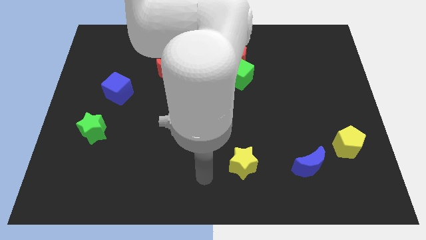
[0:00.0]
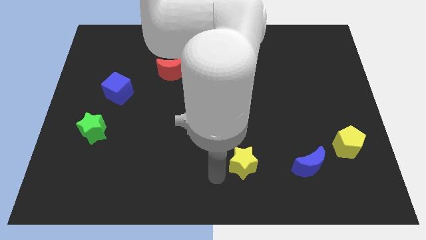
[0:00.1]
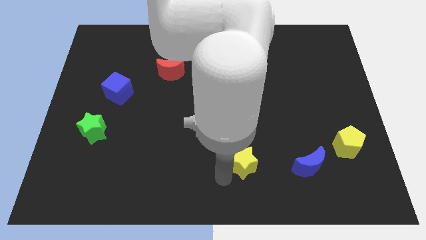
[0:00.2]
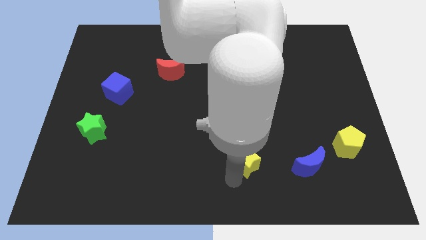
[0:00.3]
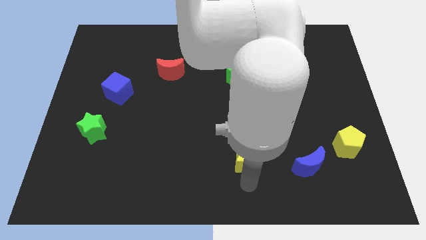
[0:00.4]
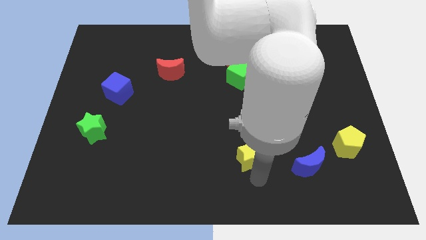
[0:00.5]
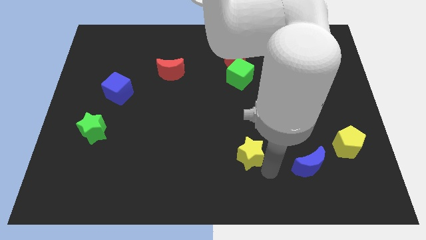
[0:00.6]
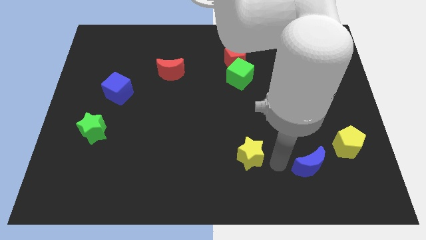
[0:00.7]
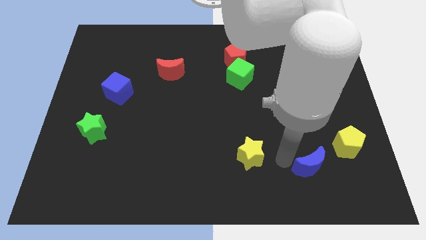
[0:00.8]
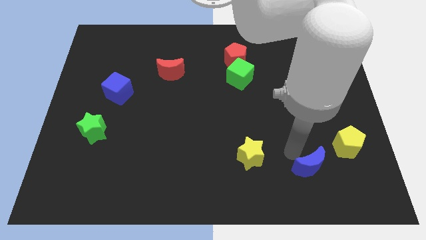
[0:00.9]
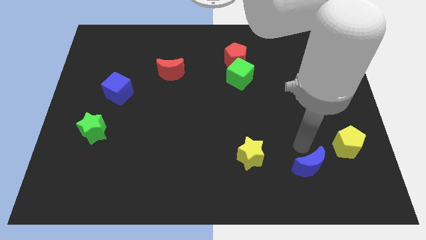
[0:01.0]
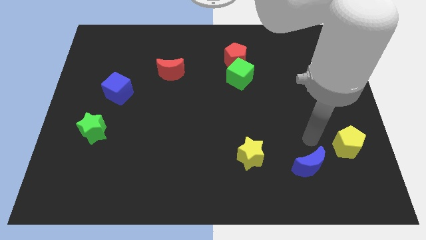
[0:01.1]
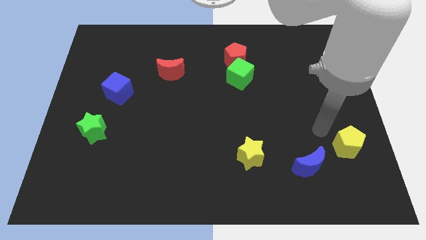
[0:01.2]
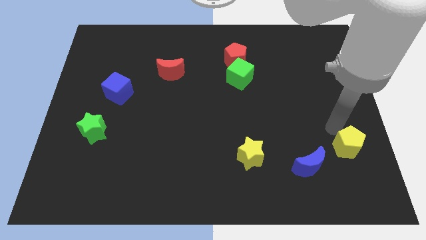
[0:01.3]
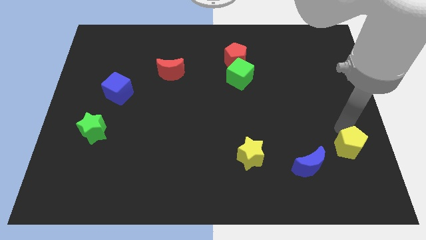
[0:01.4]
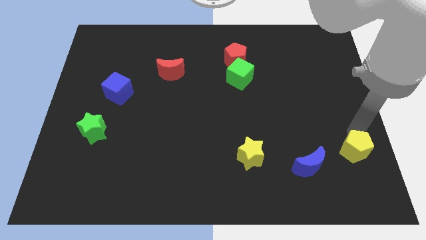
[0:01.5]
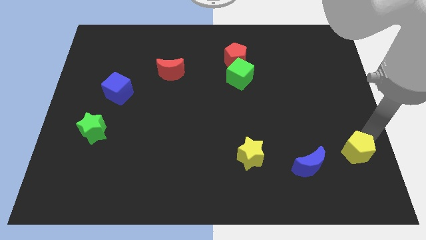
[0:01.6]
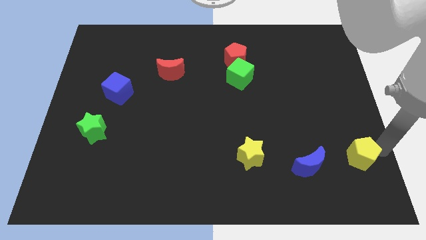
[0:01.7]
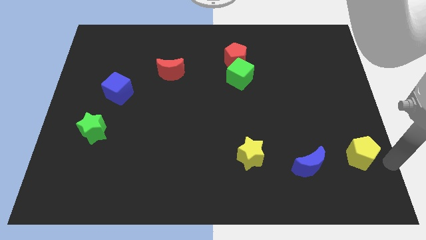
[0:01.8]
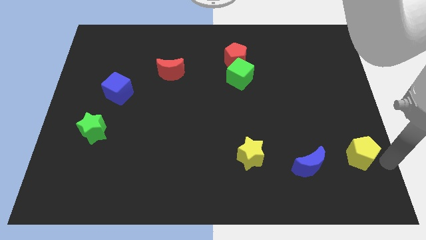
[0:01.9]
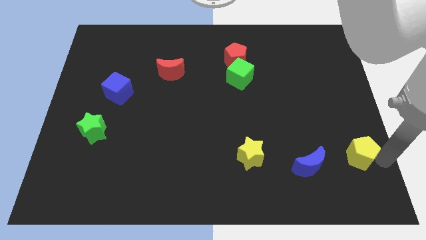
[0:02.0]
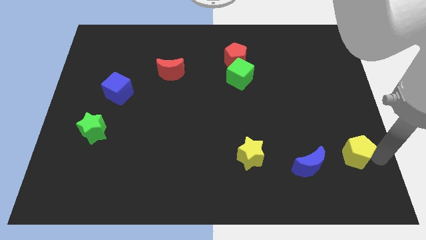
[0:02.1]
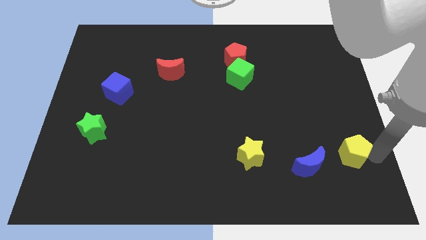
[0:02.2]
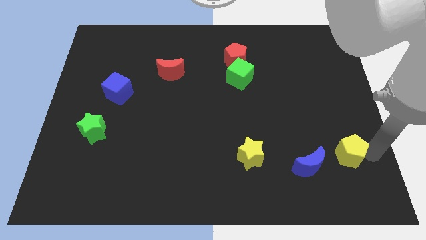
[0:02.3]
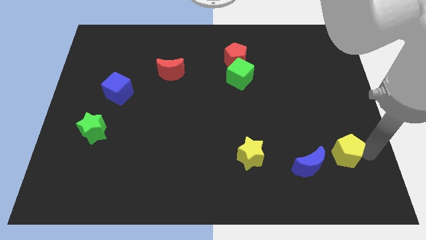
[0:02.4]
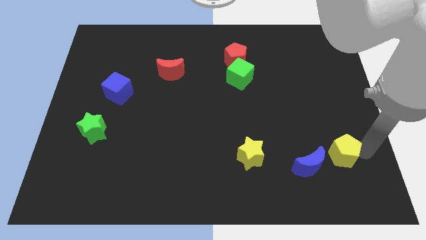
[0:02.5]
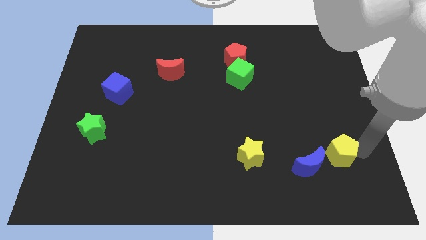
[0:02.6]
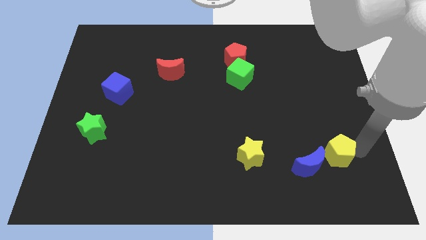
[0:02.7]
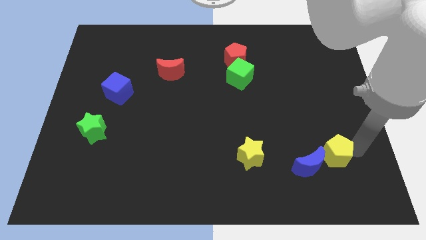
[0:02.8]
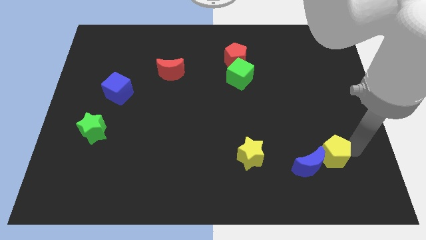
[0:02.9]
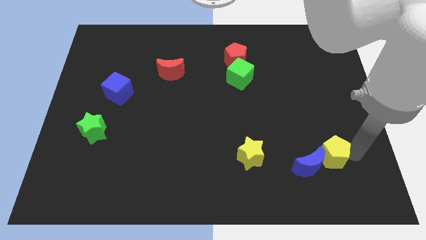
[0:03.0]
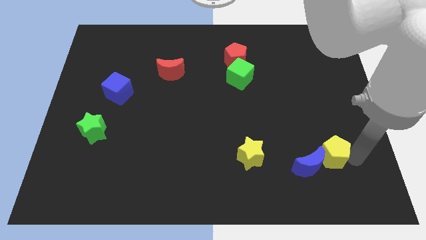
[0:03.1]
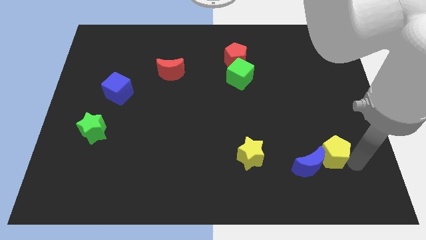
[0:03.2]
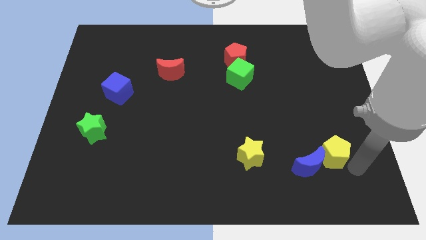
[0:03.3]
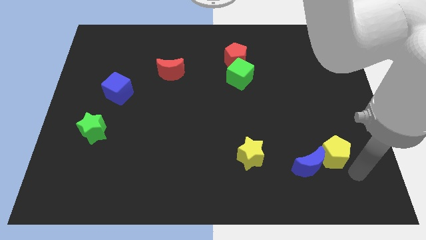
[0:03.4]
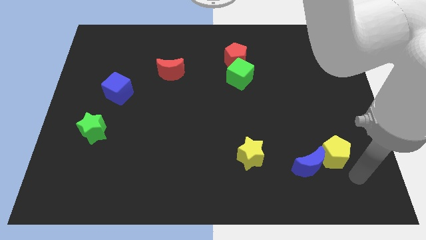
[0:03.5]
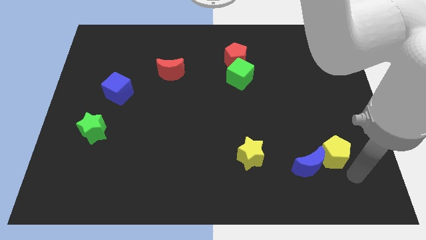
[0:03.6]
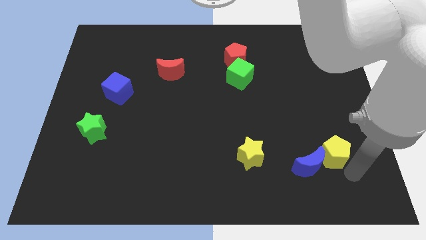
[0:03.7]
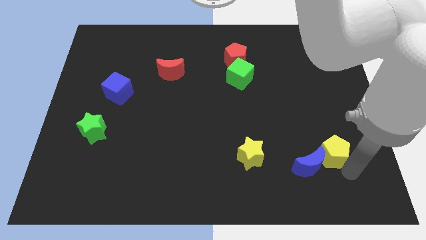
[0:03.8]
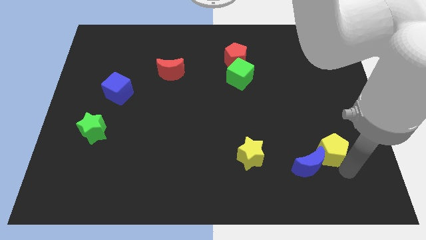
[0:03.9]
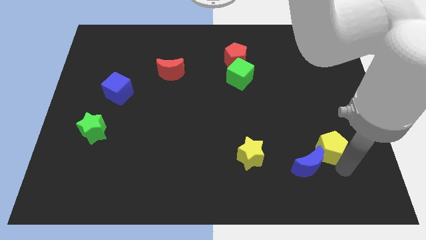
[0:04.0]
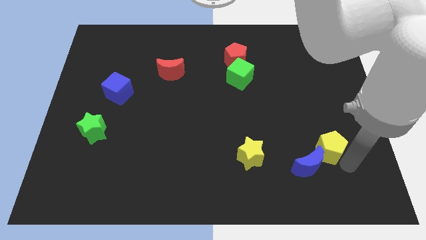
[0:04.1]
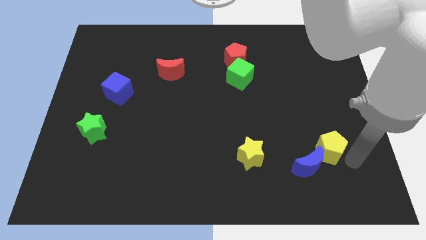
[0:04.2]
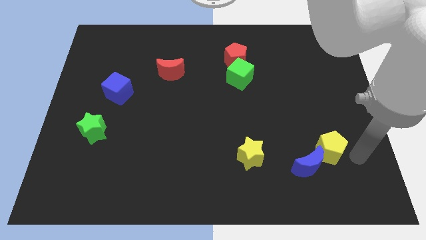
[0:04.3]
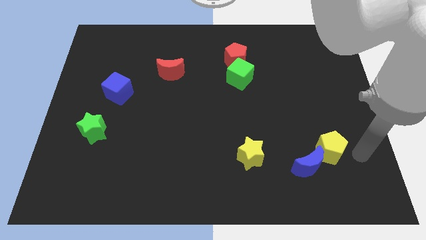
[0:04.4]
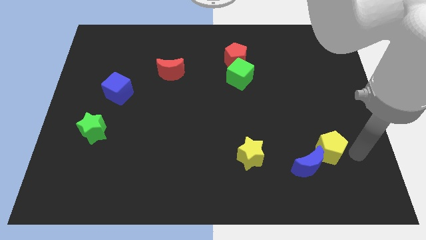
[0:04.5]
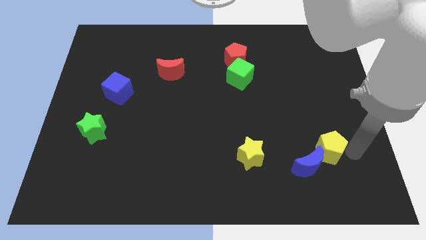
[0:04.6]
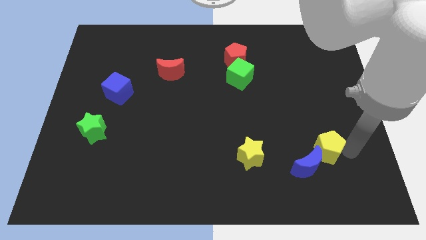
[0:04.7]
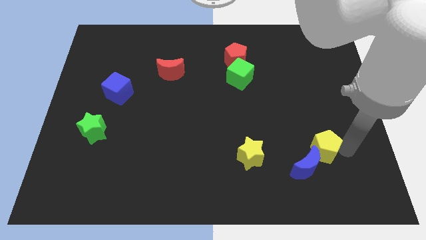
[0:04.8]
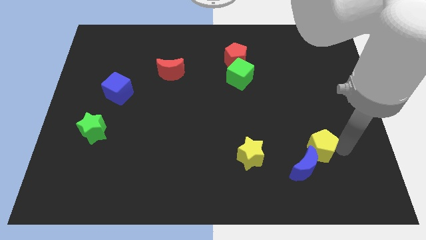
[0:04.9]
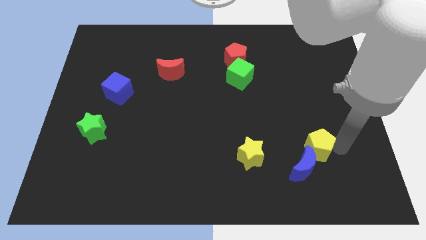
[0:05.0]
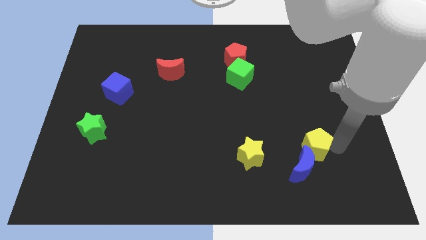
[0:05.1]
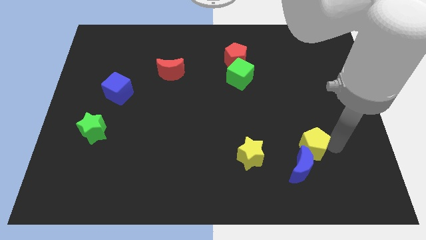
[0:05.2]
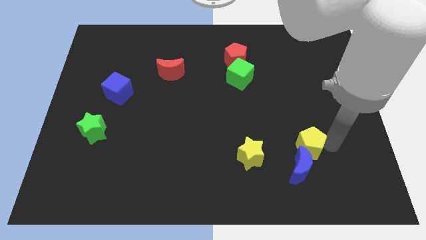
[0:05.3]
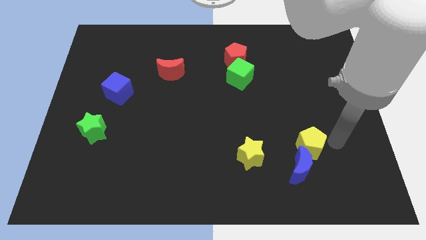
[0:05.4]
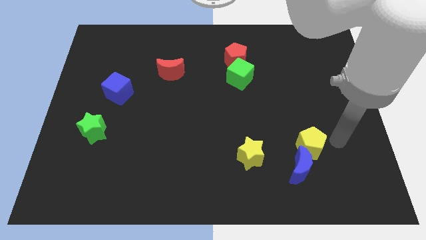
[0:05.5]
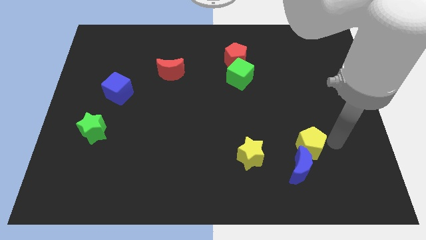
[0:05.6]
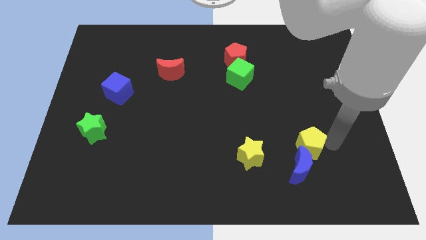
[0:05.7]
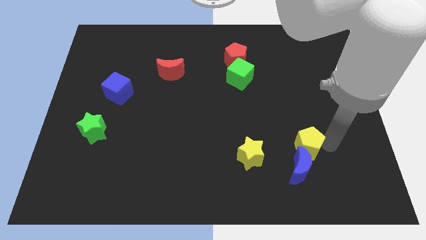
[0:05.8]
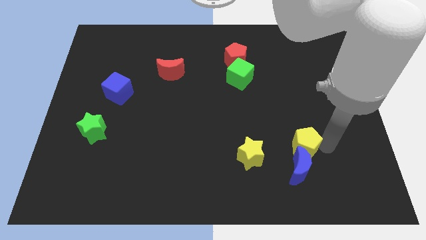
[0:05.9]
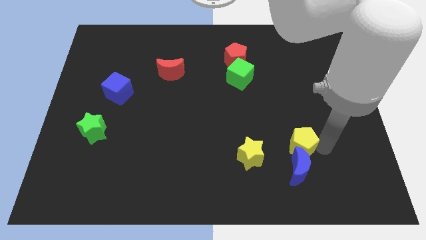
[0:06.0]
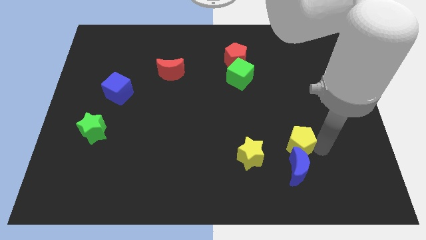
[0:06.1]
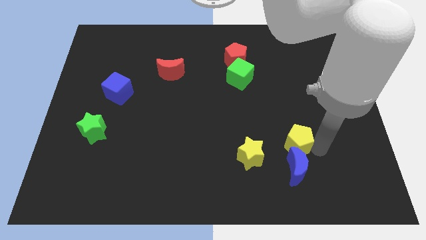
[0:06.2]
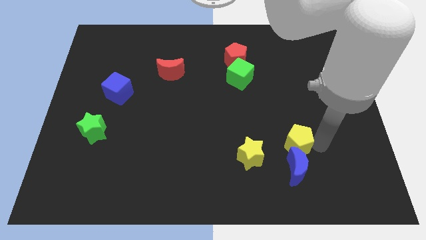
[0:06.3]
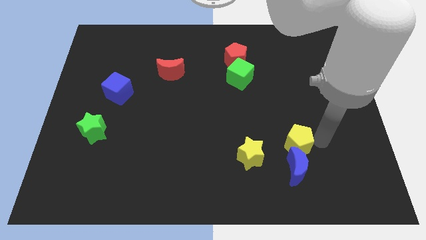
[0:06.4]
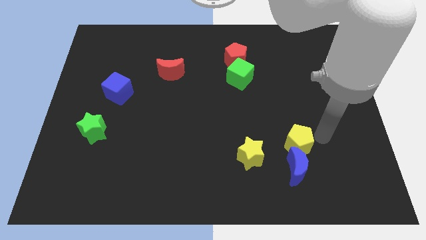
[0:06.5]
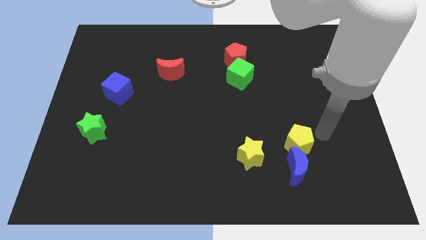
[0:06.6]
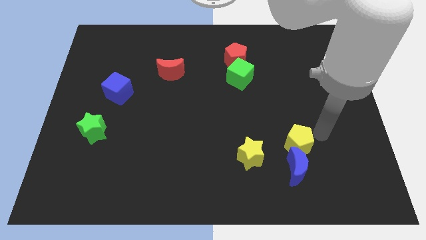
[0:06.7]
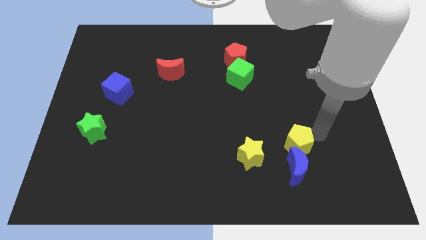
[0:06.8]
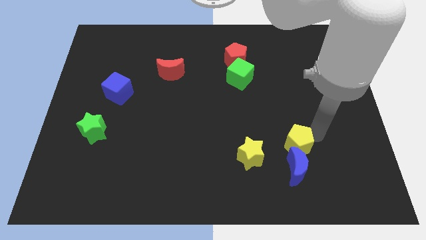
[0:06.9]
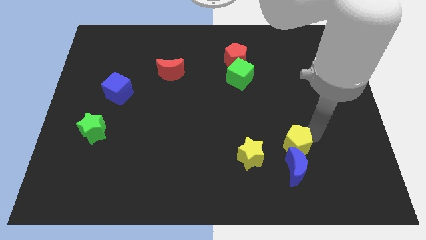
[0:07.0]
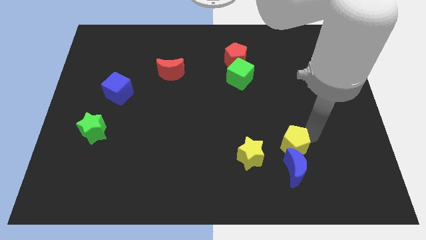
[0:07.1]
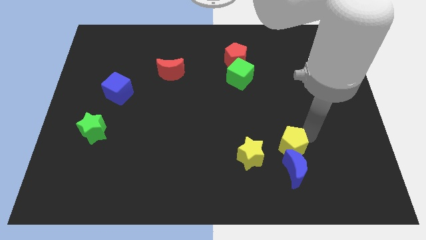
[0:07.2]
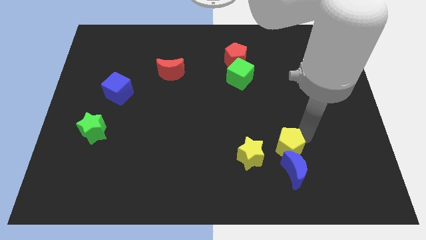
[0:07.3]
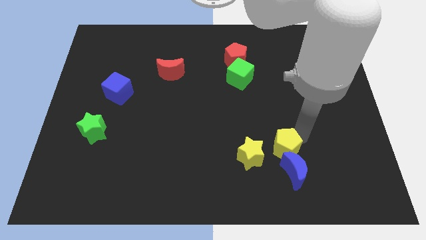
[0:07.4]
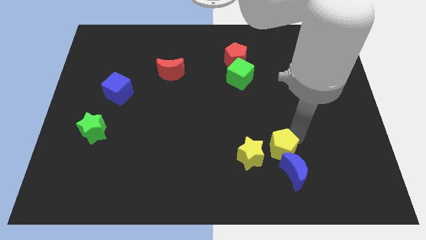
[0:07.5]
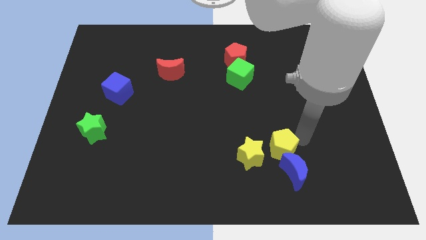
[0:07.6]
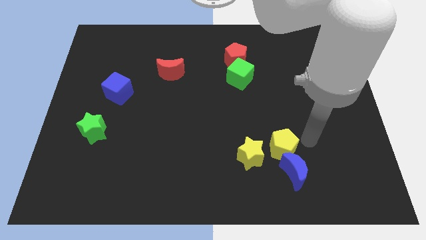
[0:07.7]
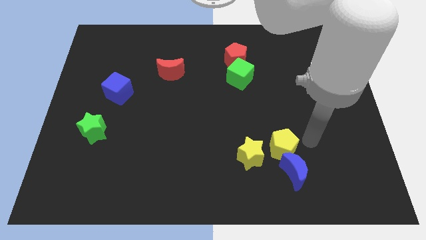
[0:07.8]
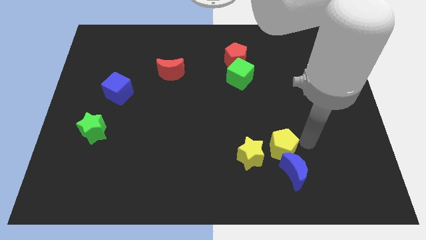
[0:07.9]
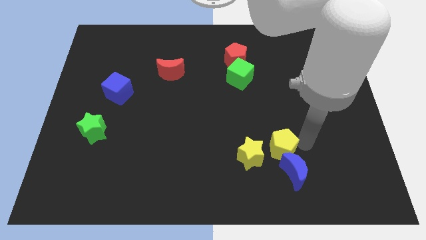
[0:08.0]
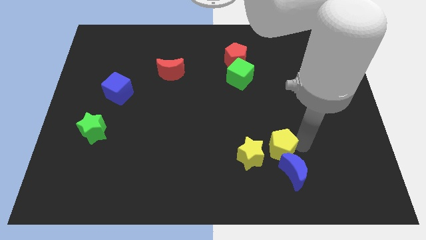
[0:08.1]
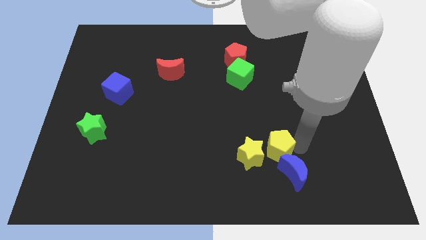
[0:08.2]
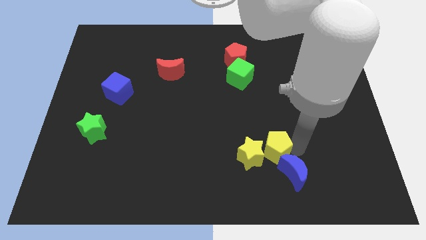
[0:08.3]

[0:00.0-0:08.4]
put the yellow pentagon close to the yellow star
